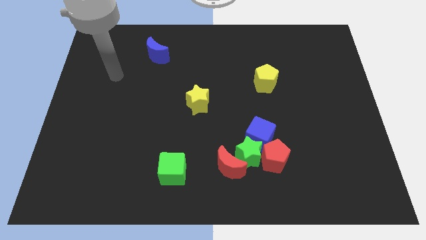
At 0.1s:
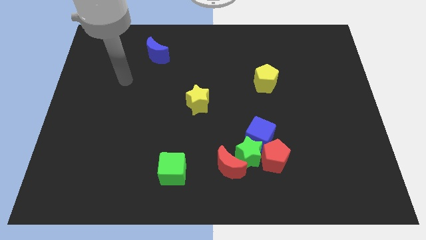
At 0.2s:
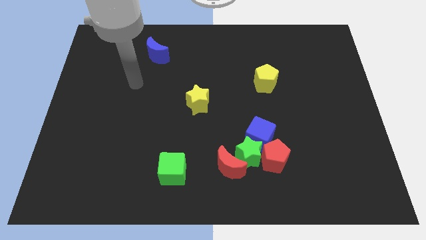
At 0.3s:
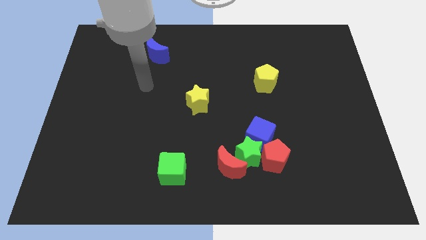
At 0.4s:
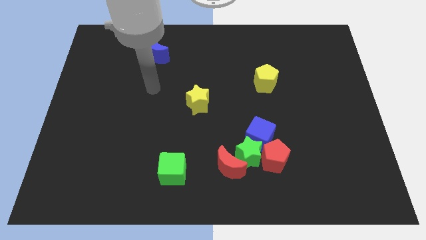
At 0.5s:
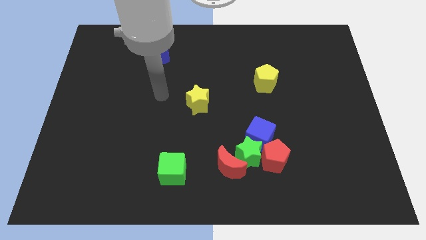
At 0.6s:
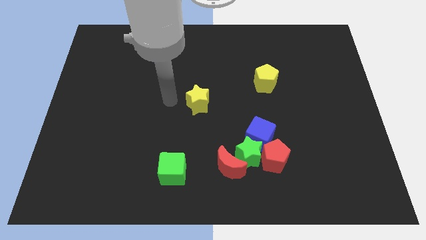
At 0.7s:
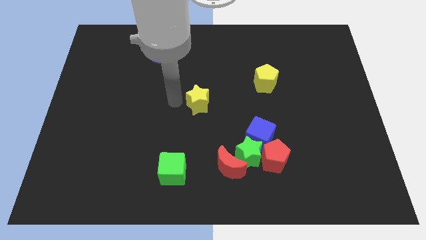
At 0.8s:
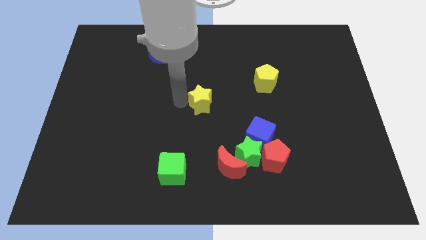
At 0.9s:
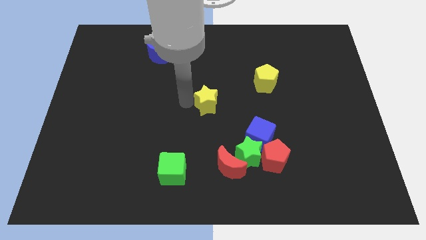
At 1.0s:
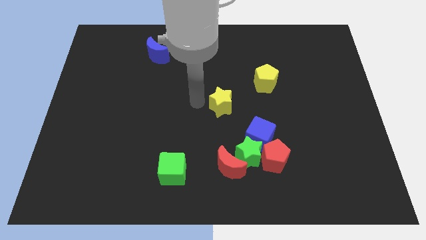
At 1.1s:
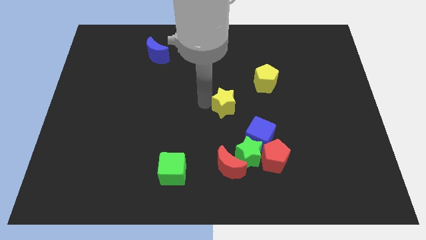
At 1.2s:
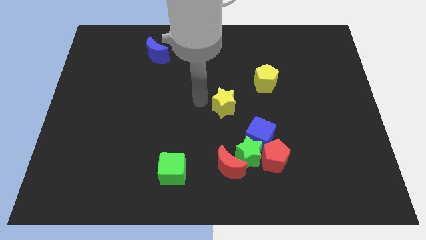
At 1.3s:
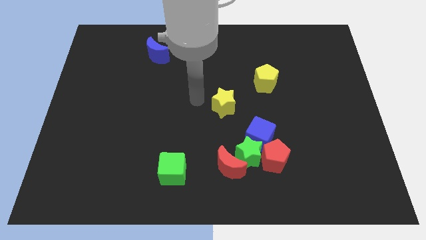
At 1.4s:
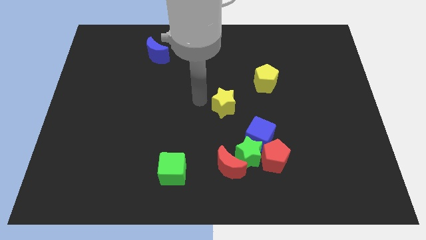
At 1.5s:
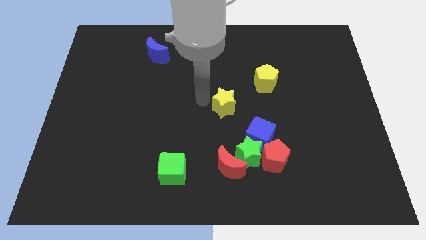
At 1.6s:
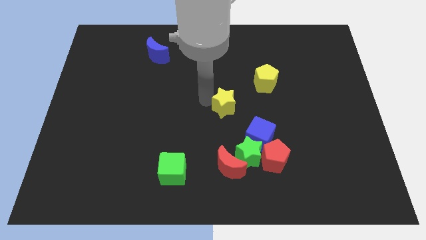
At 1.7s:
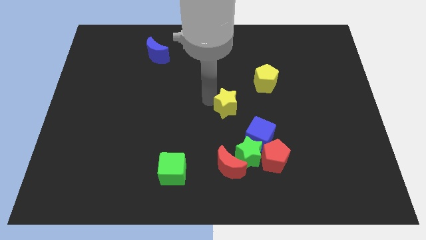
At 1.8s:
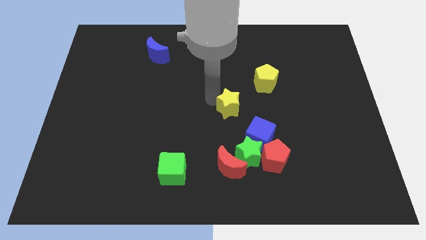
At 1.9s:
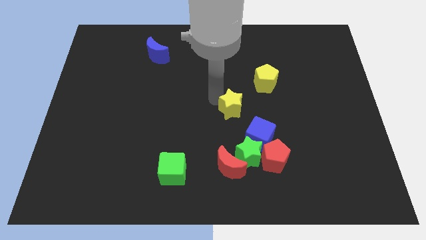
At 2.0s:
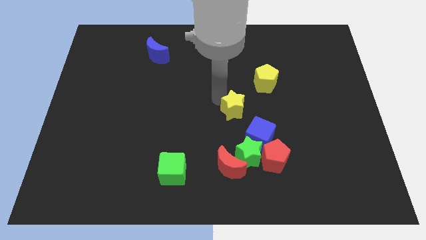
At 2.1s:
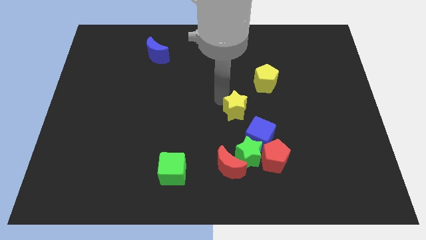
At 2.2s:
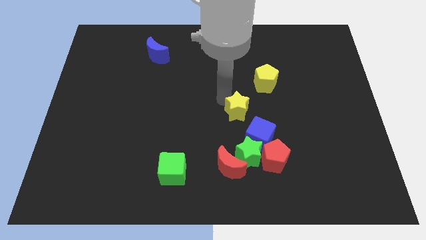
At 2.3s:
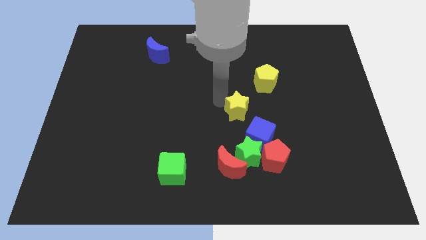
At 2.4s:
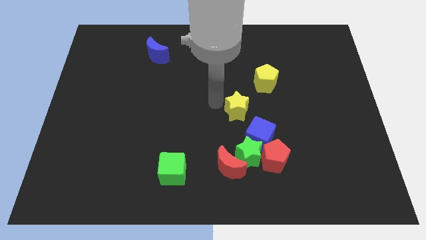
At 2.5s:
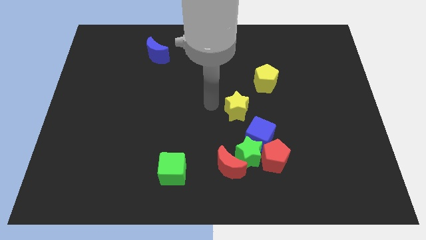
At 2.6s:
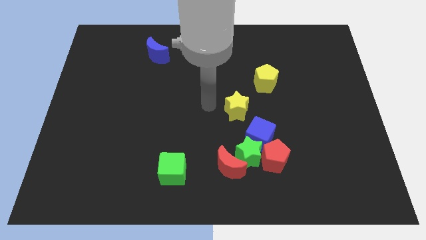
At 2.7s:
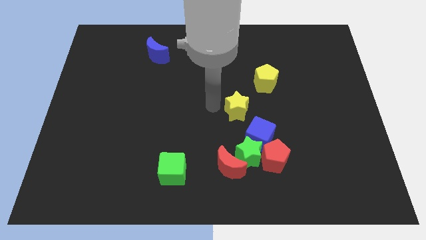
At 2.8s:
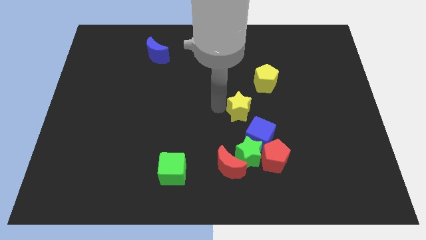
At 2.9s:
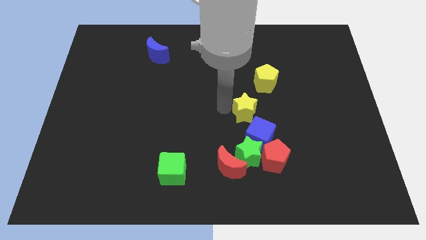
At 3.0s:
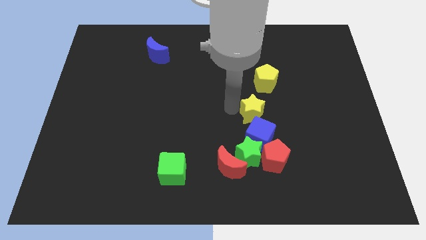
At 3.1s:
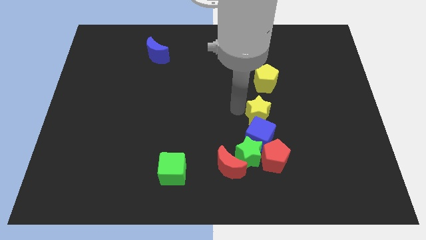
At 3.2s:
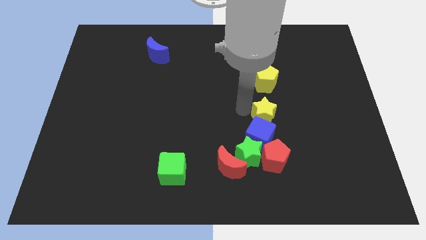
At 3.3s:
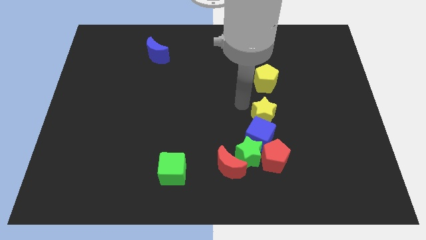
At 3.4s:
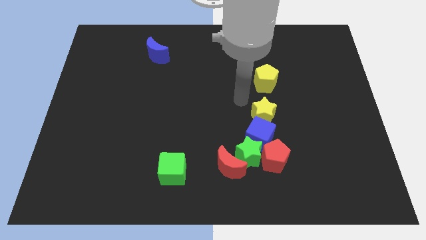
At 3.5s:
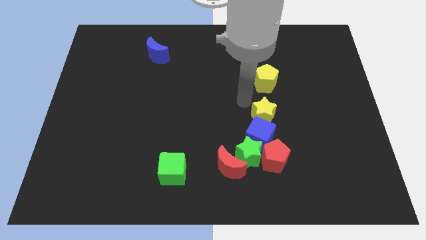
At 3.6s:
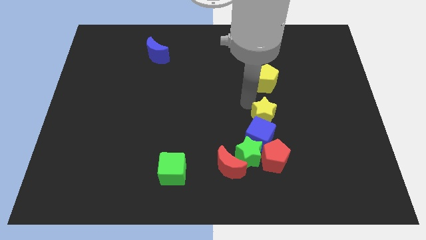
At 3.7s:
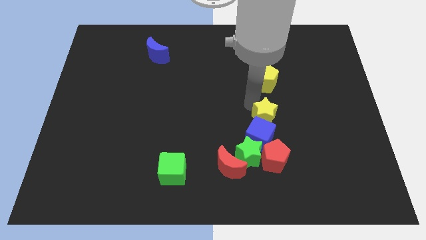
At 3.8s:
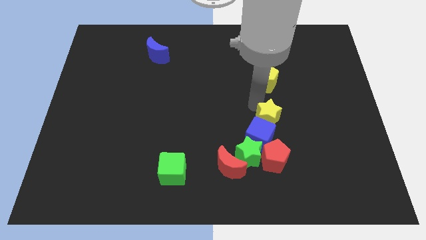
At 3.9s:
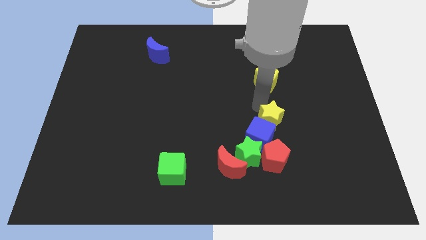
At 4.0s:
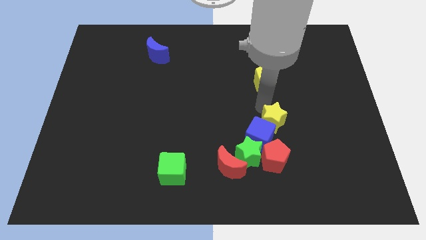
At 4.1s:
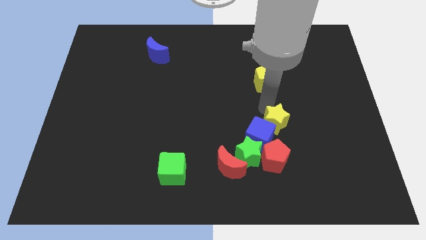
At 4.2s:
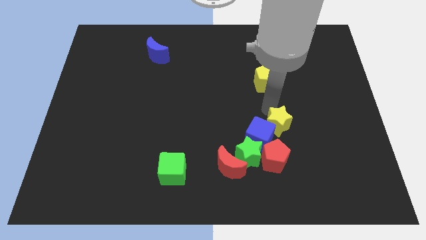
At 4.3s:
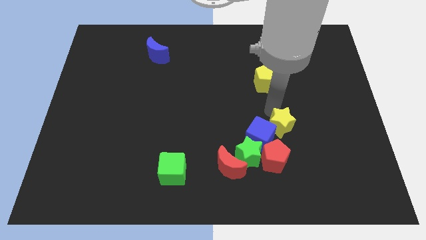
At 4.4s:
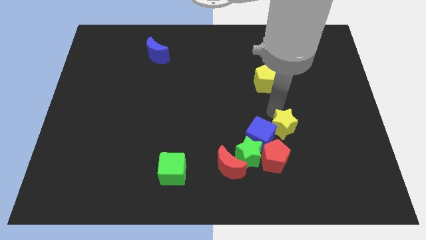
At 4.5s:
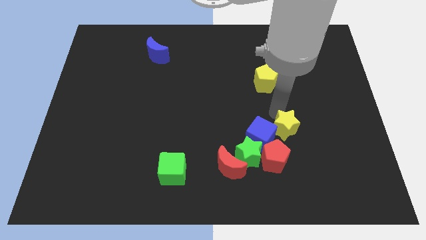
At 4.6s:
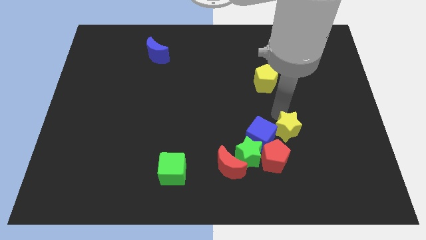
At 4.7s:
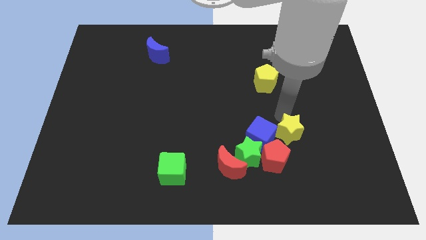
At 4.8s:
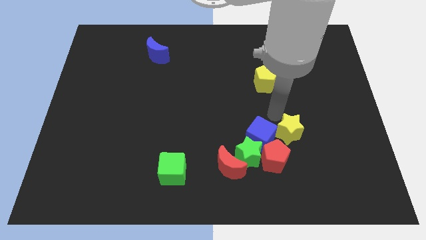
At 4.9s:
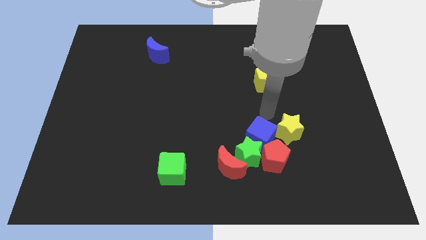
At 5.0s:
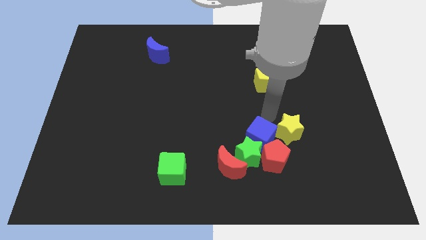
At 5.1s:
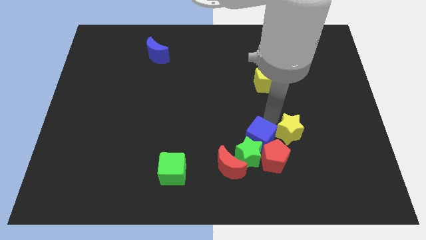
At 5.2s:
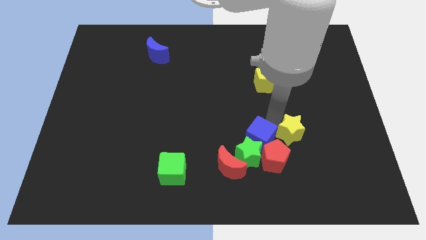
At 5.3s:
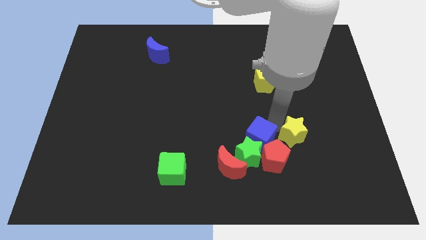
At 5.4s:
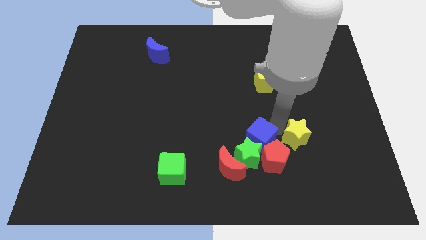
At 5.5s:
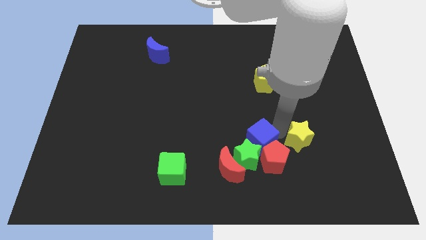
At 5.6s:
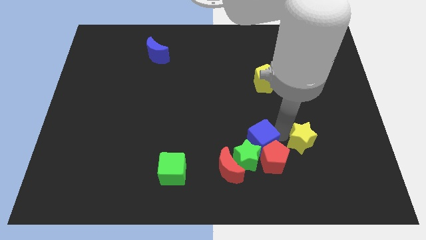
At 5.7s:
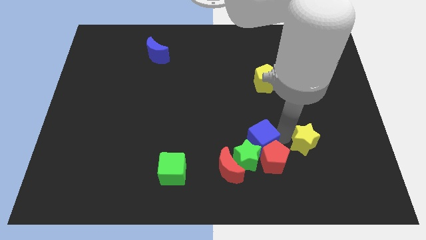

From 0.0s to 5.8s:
push the yellow star right of the red pentagon

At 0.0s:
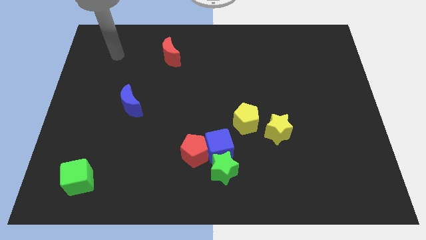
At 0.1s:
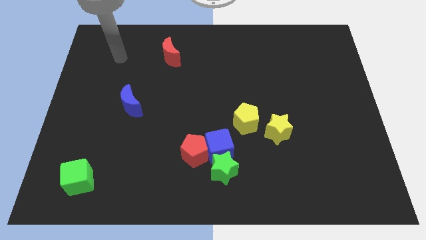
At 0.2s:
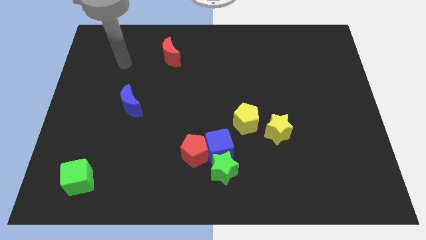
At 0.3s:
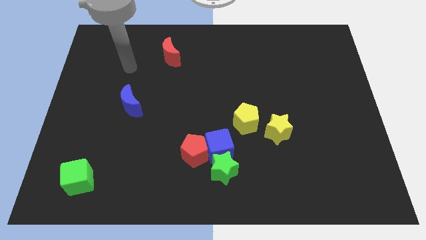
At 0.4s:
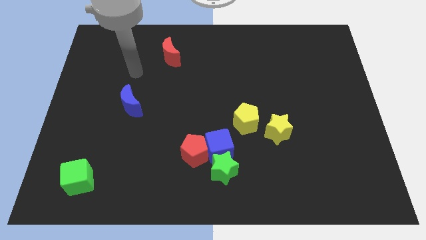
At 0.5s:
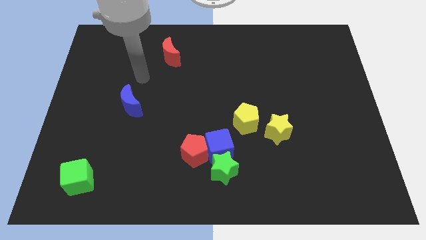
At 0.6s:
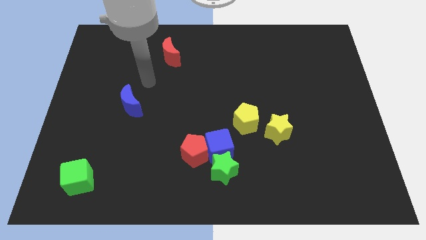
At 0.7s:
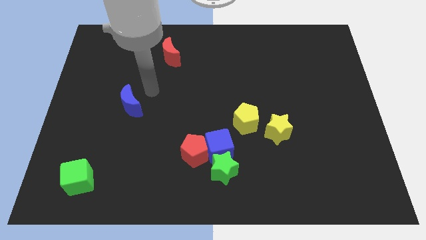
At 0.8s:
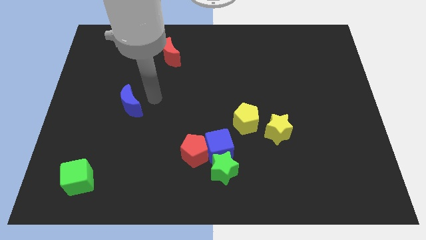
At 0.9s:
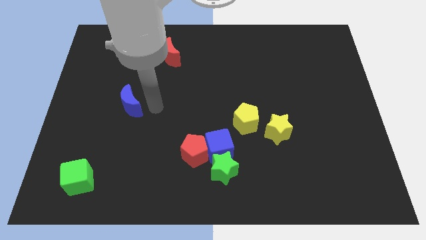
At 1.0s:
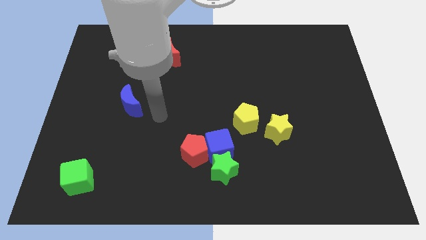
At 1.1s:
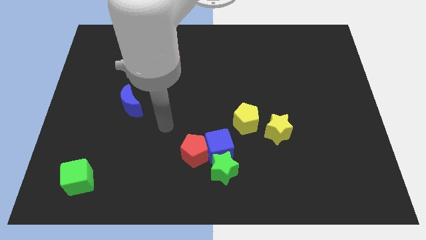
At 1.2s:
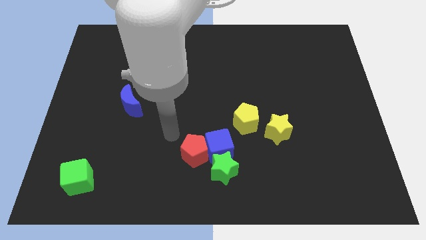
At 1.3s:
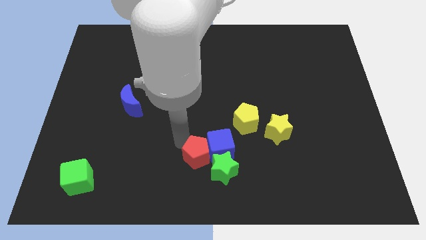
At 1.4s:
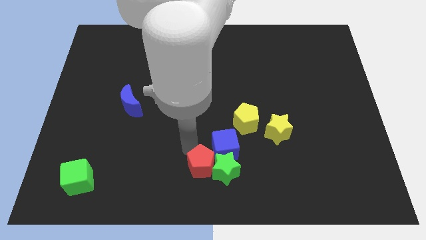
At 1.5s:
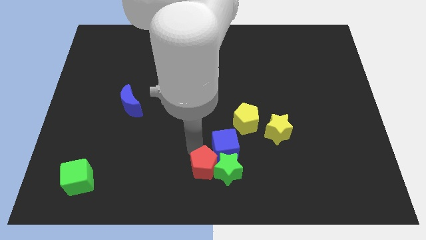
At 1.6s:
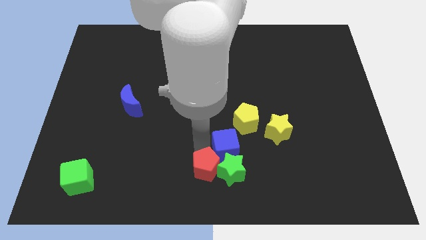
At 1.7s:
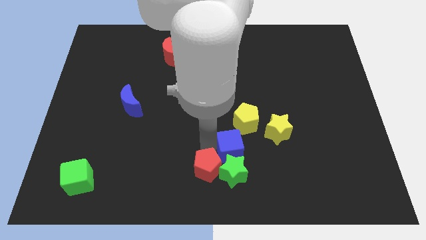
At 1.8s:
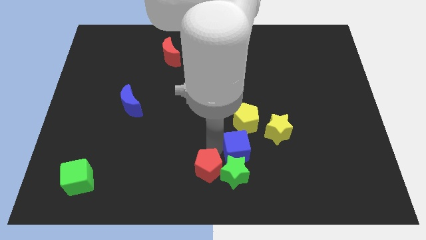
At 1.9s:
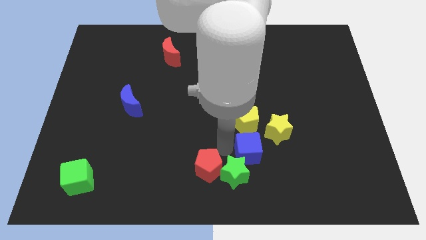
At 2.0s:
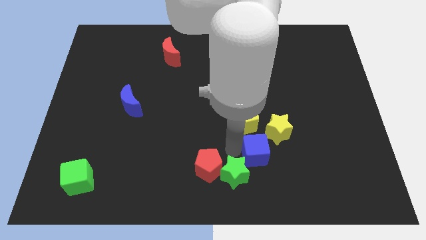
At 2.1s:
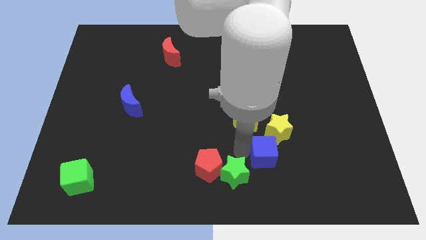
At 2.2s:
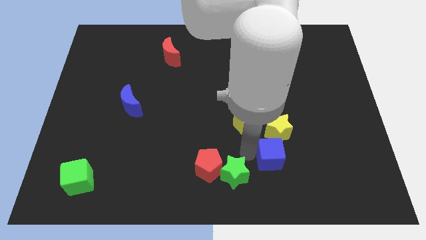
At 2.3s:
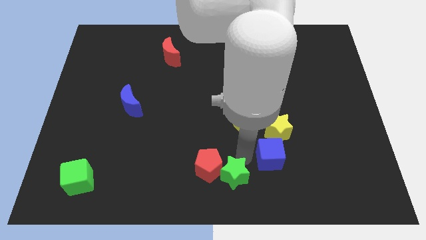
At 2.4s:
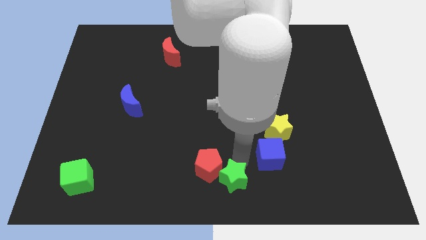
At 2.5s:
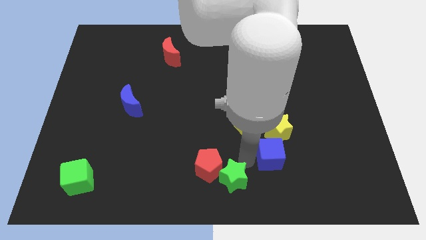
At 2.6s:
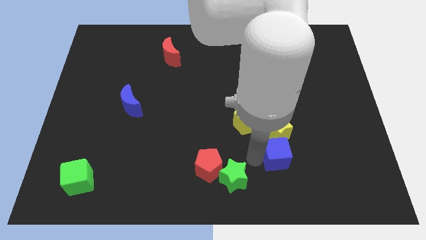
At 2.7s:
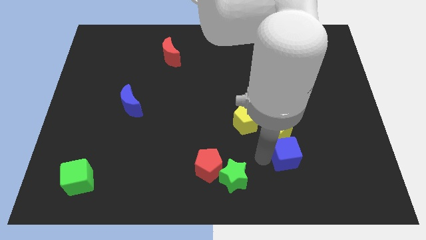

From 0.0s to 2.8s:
slide the blue cube to the bottom right side of the yellow star
